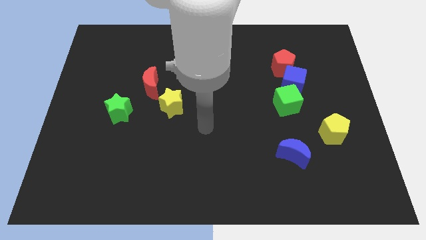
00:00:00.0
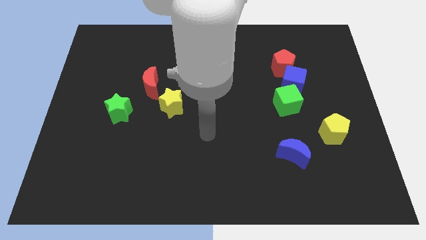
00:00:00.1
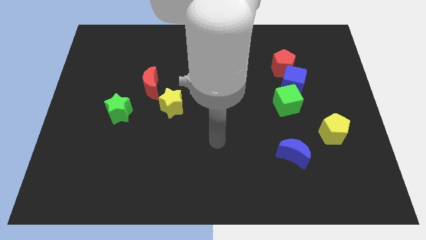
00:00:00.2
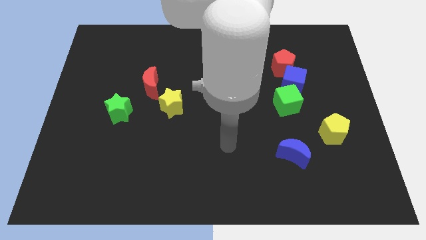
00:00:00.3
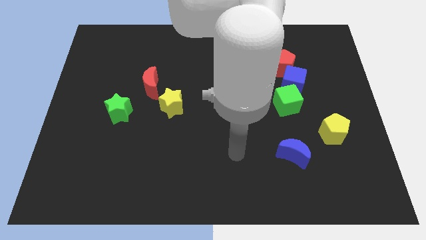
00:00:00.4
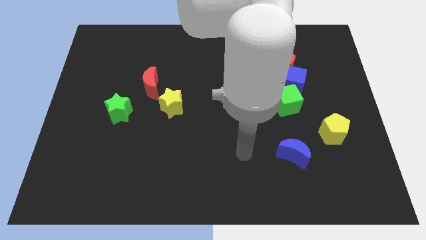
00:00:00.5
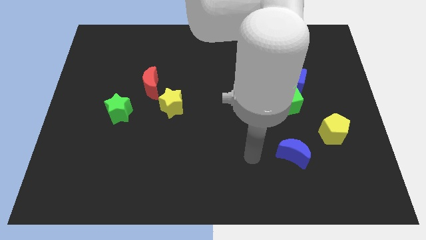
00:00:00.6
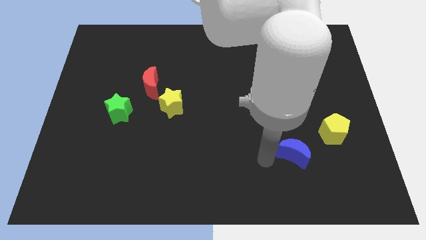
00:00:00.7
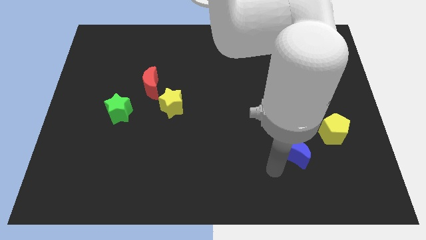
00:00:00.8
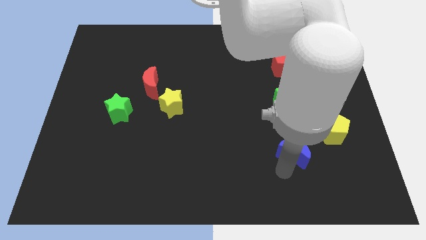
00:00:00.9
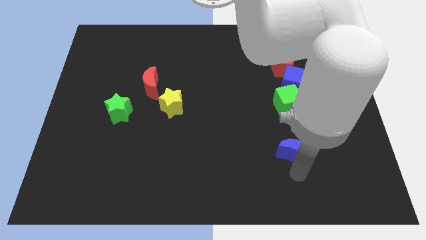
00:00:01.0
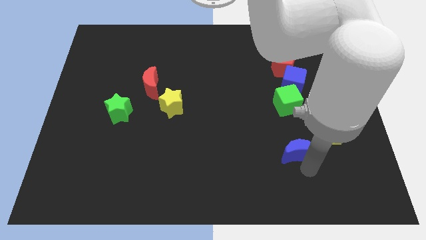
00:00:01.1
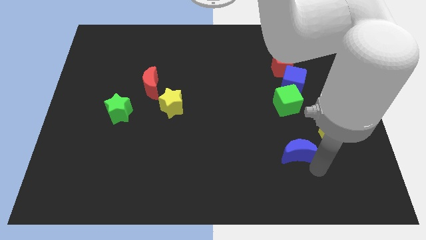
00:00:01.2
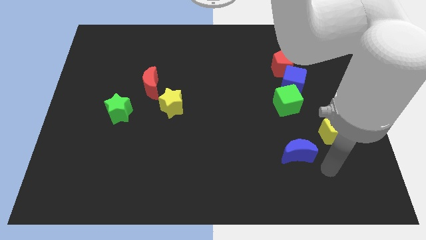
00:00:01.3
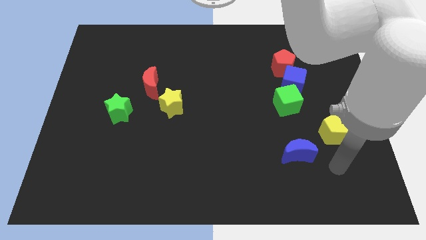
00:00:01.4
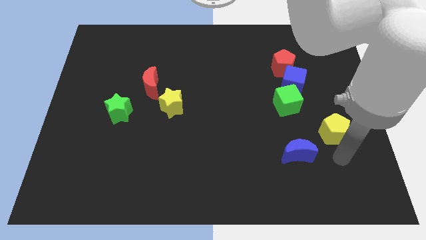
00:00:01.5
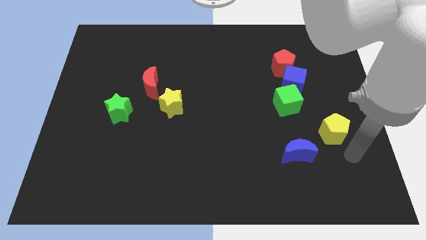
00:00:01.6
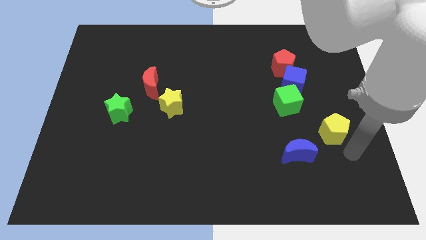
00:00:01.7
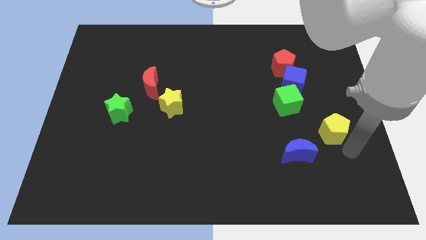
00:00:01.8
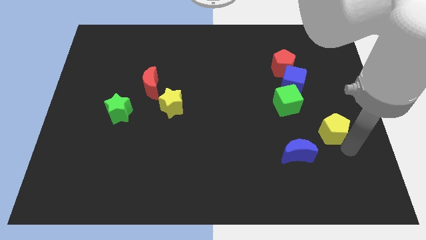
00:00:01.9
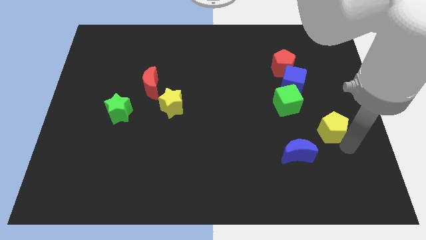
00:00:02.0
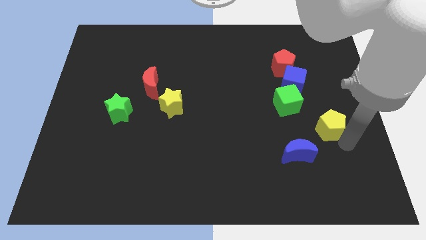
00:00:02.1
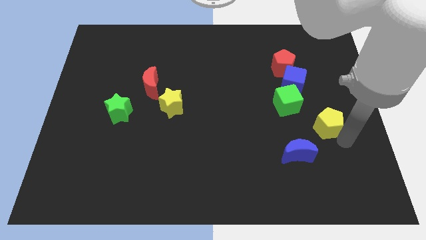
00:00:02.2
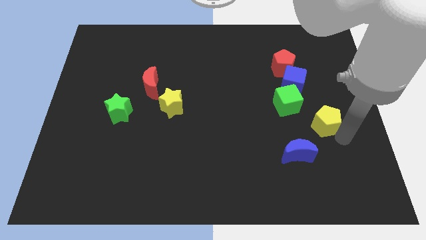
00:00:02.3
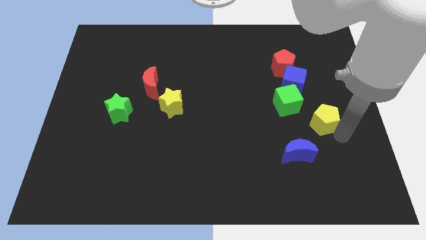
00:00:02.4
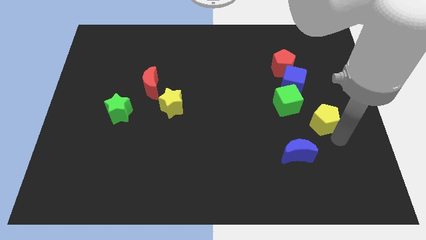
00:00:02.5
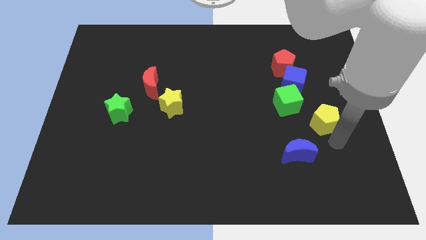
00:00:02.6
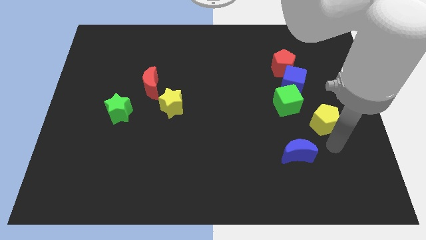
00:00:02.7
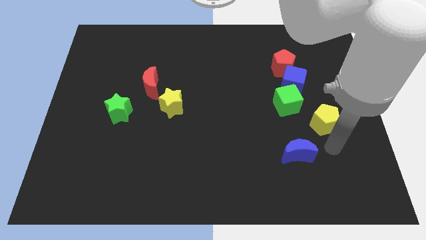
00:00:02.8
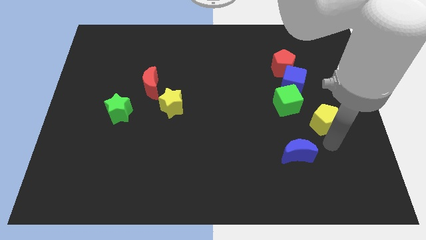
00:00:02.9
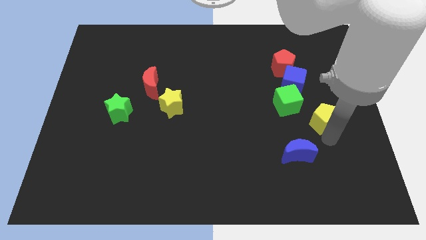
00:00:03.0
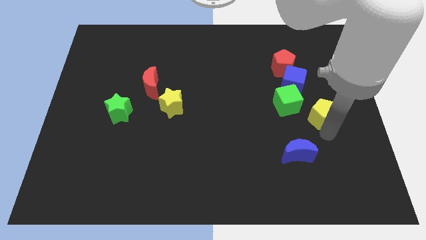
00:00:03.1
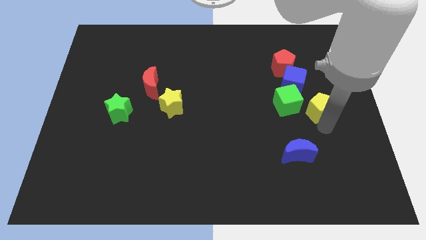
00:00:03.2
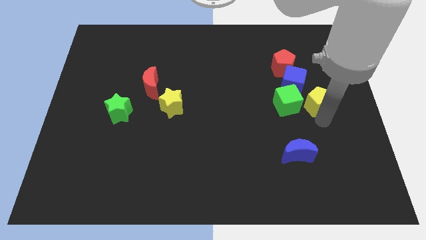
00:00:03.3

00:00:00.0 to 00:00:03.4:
move the yellow pentagon a little bit upwards

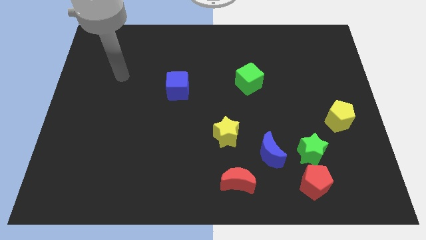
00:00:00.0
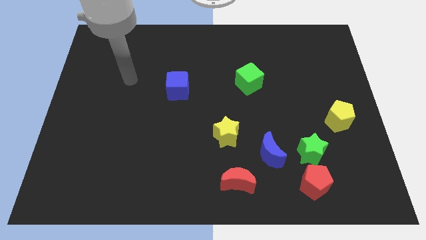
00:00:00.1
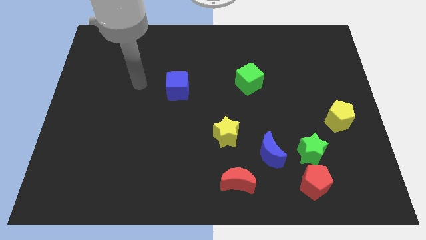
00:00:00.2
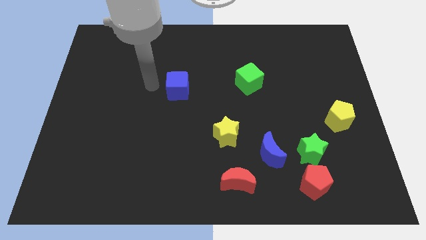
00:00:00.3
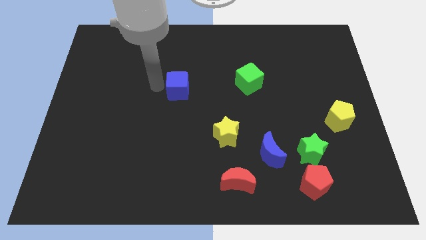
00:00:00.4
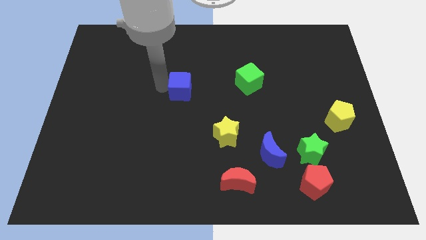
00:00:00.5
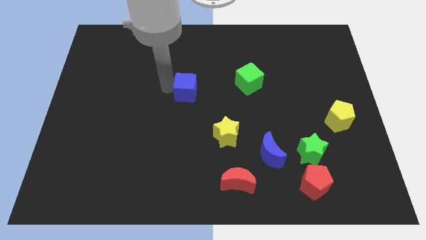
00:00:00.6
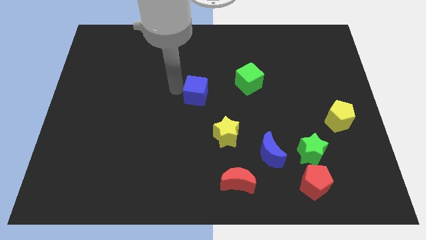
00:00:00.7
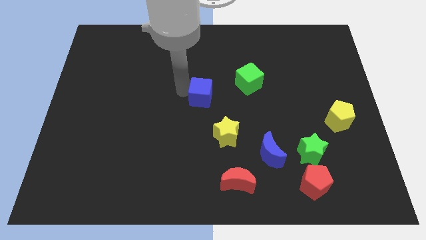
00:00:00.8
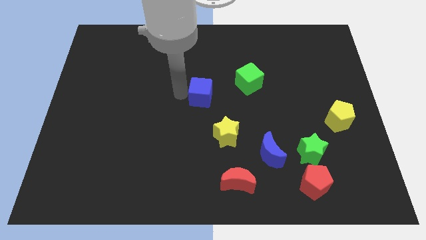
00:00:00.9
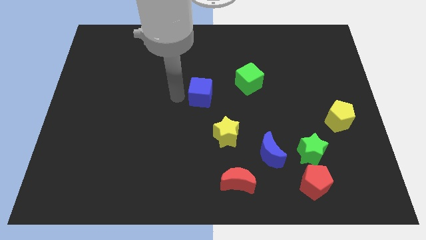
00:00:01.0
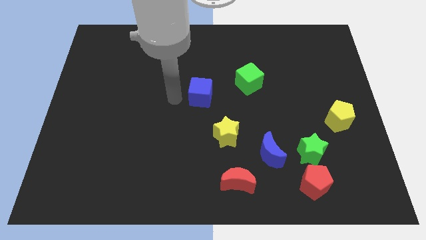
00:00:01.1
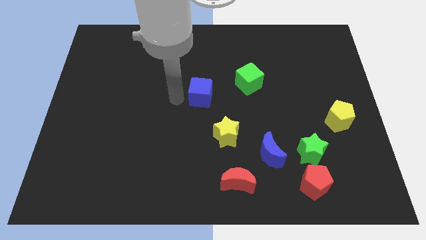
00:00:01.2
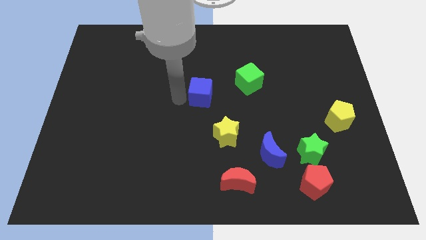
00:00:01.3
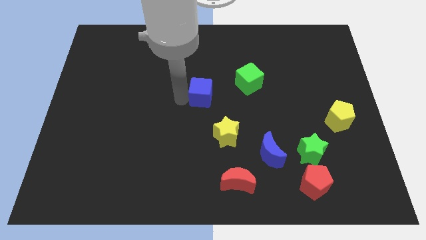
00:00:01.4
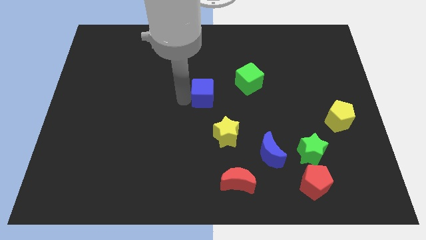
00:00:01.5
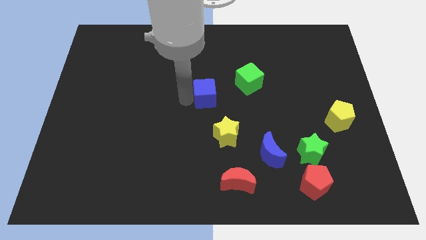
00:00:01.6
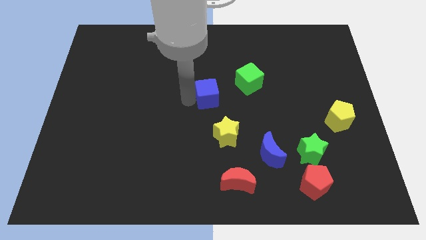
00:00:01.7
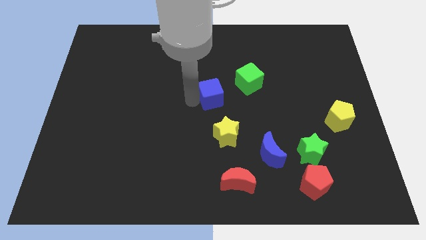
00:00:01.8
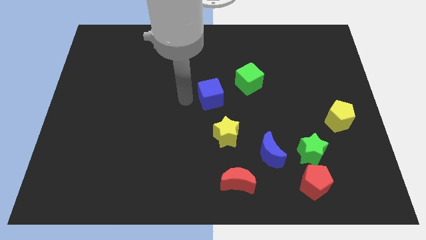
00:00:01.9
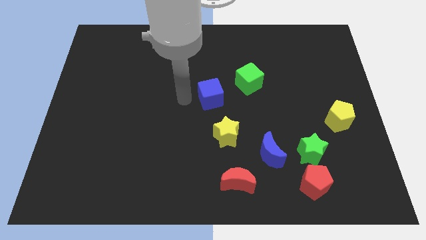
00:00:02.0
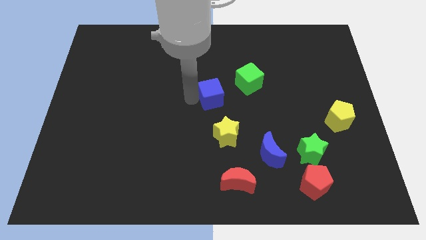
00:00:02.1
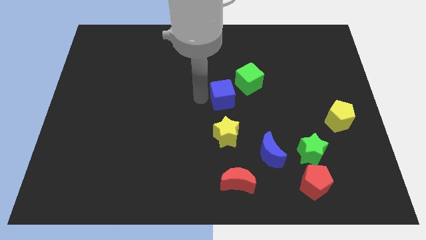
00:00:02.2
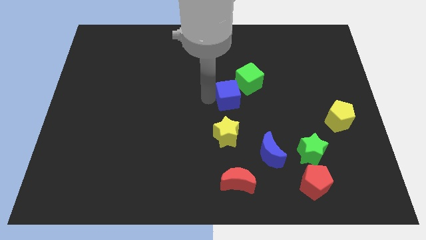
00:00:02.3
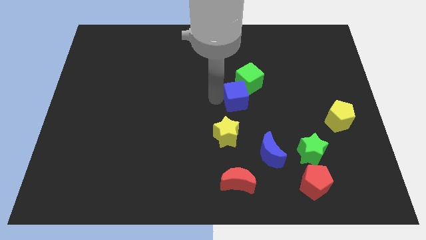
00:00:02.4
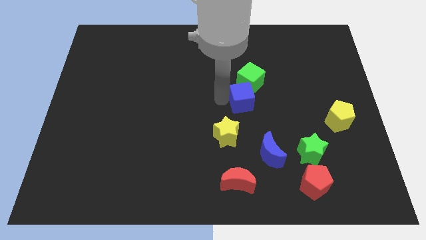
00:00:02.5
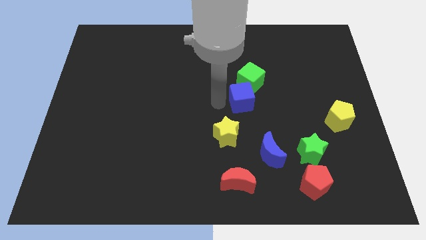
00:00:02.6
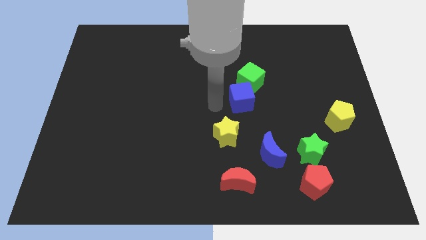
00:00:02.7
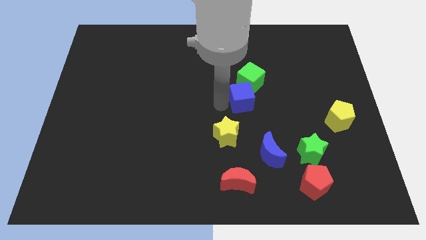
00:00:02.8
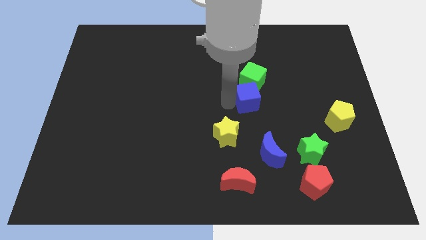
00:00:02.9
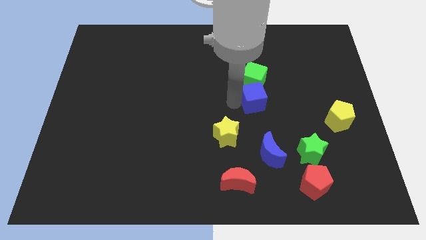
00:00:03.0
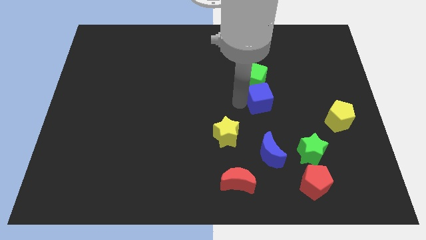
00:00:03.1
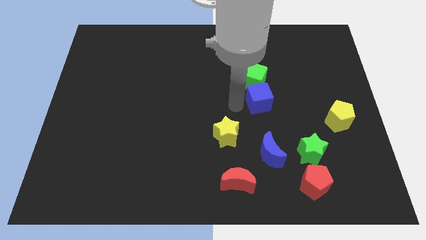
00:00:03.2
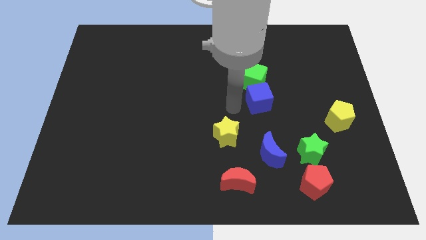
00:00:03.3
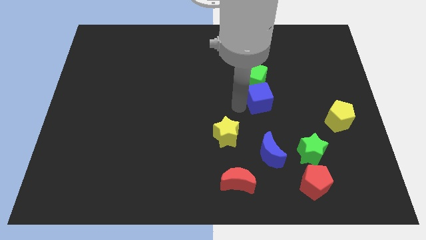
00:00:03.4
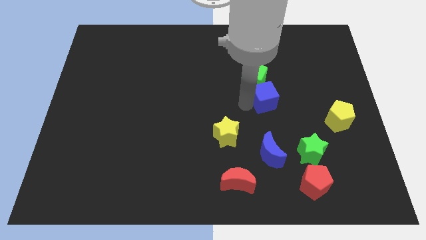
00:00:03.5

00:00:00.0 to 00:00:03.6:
push the blue cube to the right

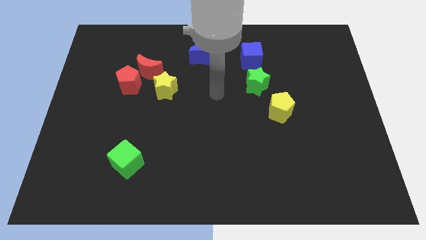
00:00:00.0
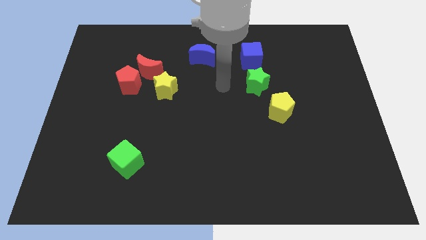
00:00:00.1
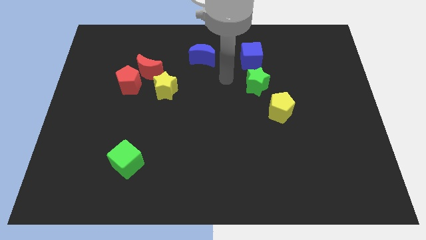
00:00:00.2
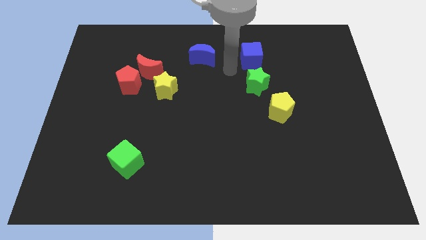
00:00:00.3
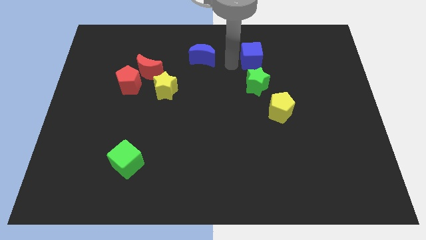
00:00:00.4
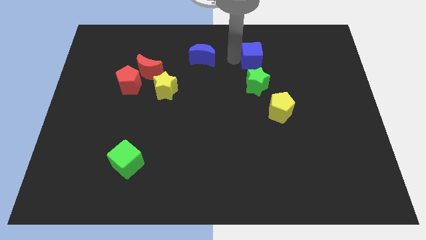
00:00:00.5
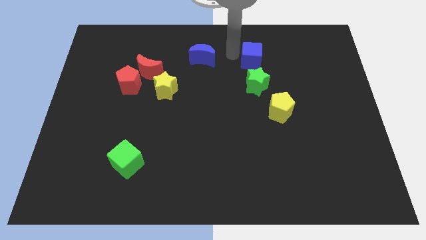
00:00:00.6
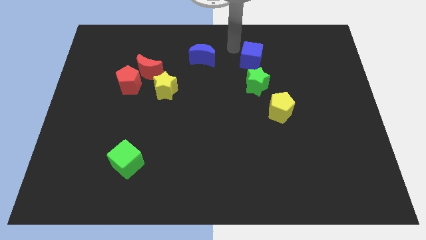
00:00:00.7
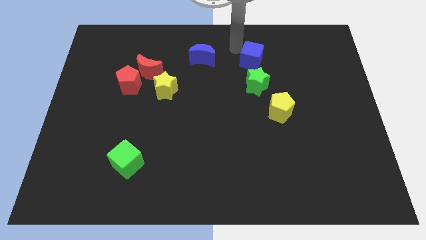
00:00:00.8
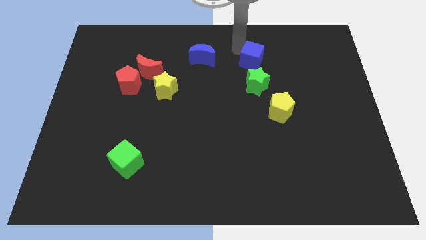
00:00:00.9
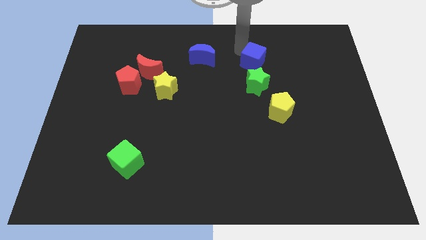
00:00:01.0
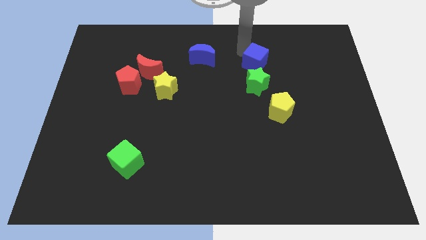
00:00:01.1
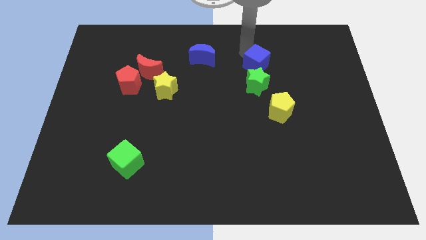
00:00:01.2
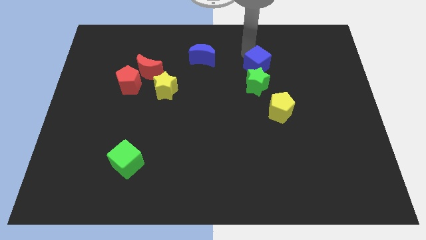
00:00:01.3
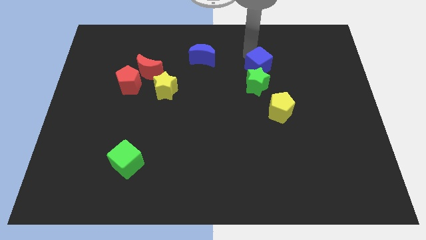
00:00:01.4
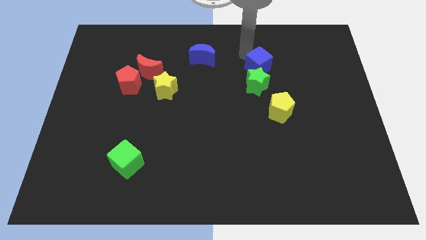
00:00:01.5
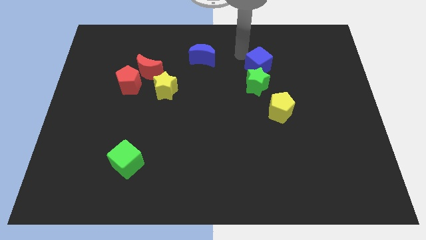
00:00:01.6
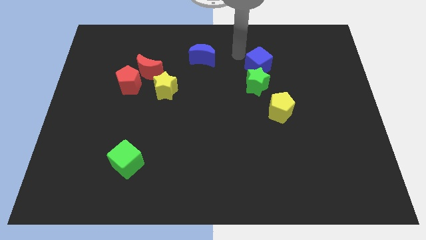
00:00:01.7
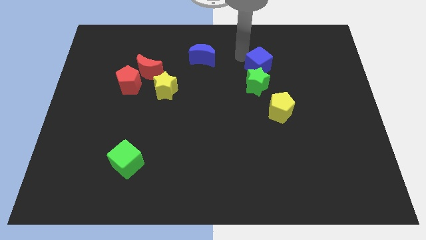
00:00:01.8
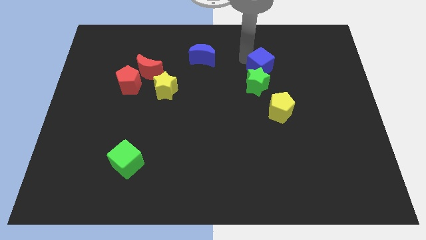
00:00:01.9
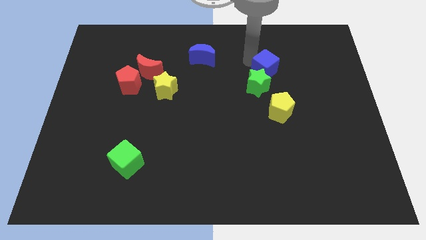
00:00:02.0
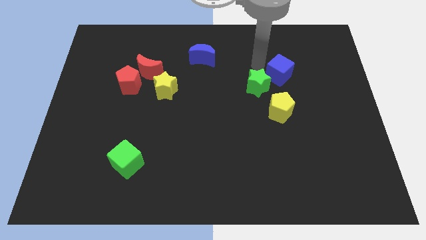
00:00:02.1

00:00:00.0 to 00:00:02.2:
slightly move the blue cube diagonally downwards and to the right
